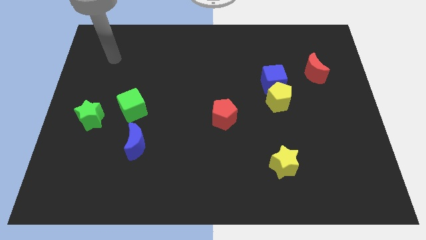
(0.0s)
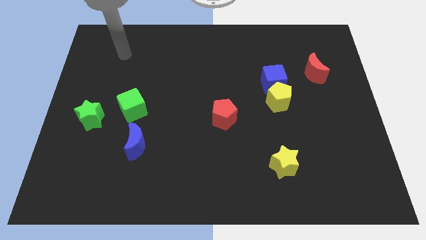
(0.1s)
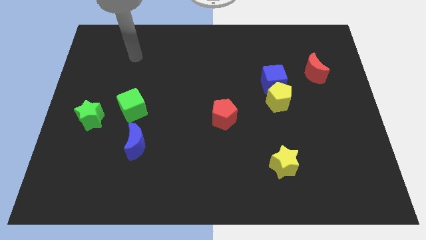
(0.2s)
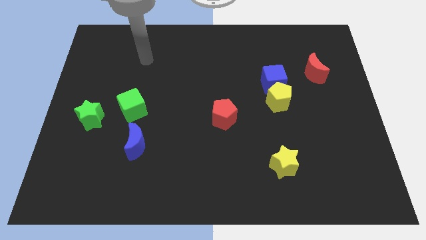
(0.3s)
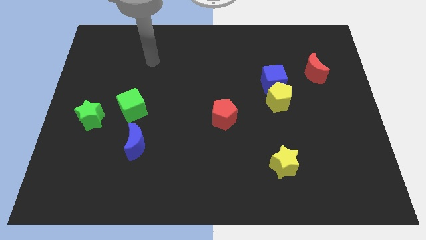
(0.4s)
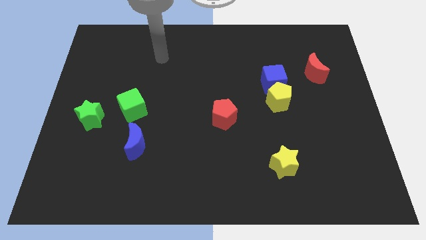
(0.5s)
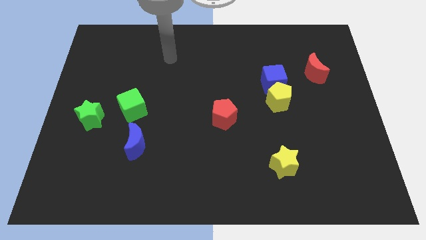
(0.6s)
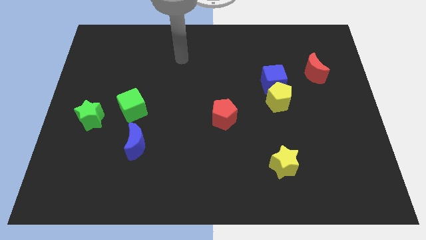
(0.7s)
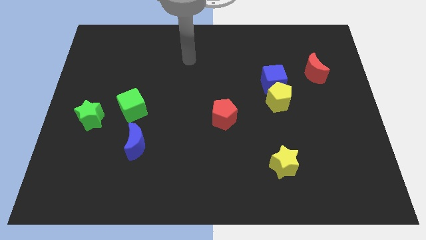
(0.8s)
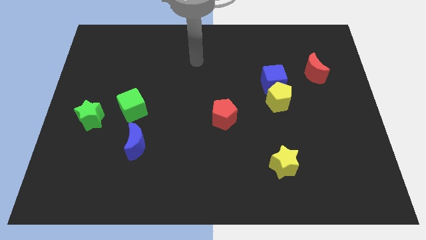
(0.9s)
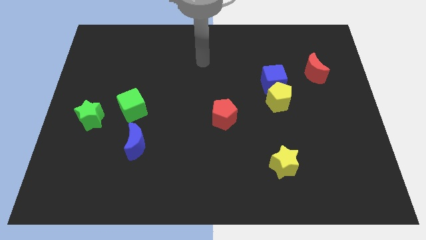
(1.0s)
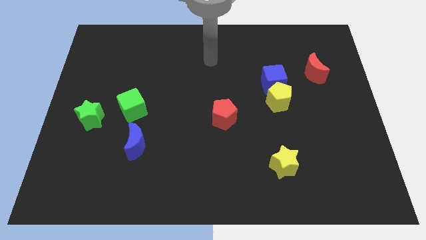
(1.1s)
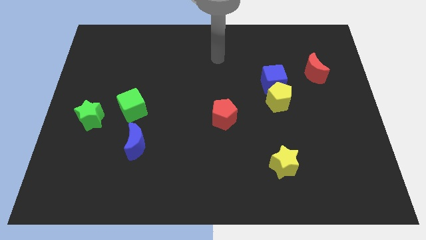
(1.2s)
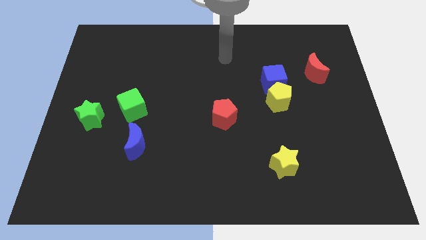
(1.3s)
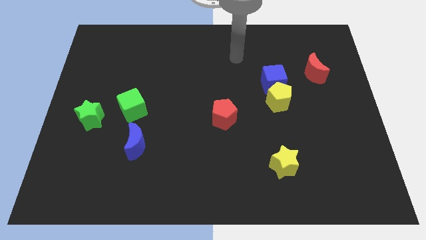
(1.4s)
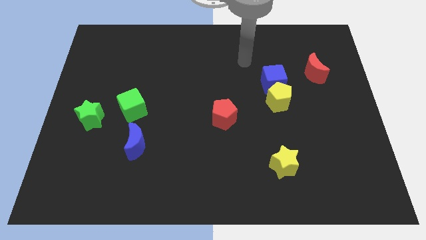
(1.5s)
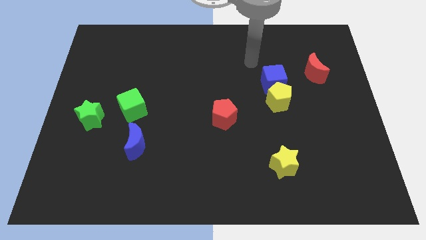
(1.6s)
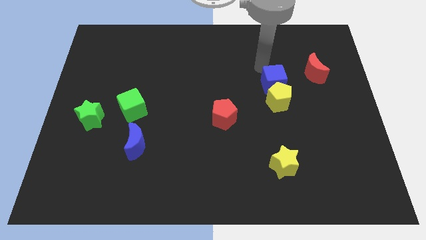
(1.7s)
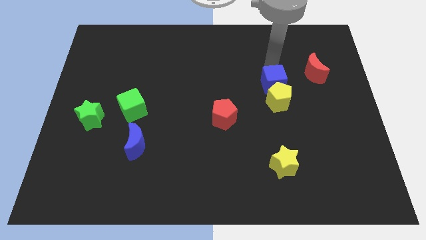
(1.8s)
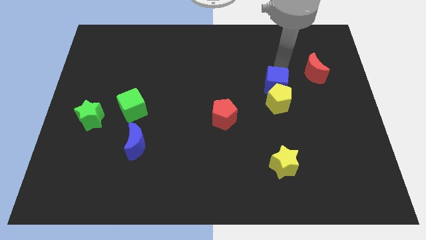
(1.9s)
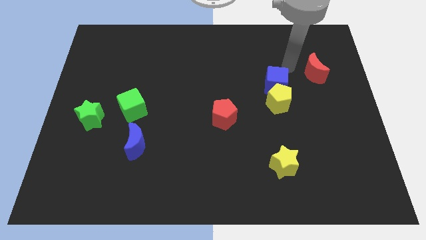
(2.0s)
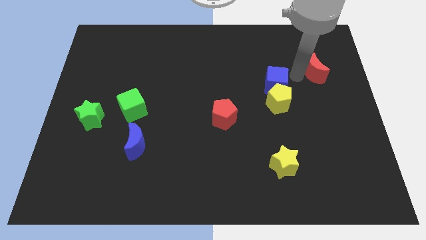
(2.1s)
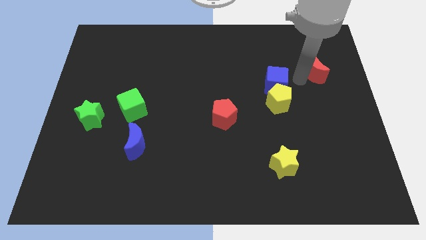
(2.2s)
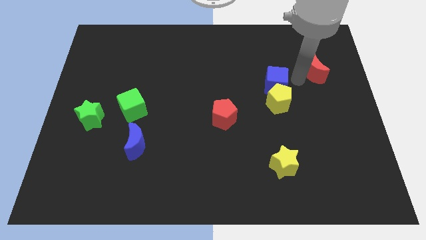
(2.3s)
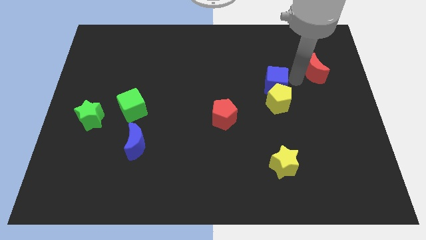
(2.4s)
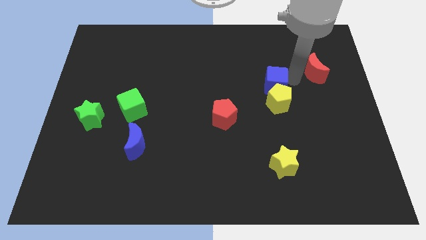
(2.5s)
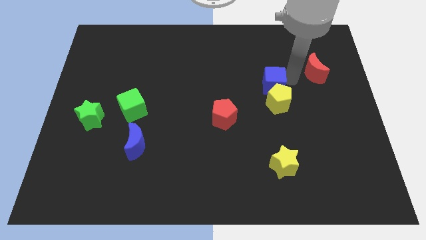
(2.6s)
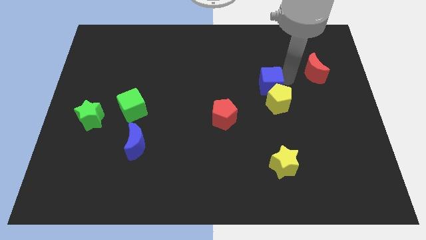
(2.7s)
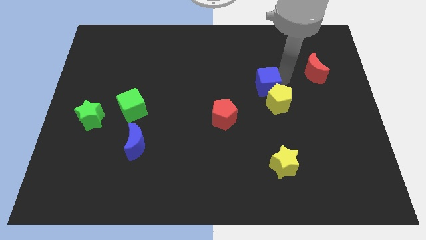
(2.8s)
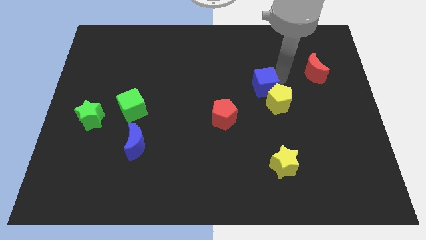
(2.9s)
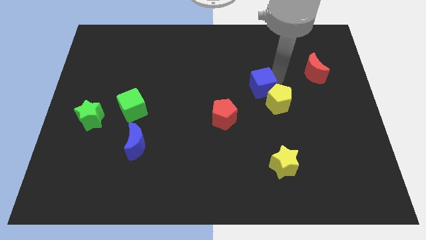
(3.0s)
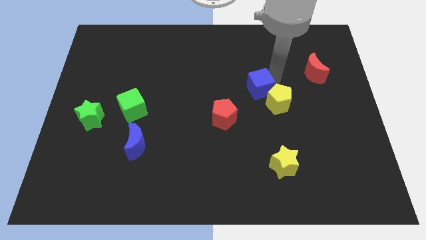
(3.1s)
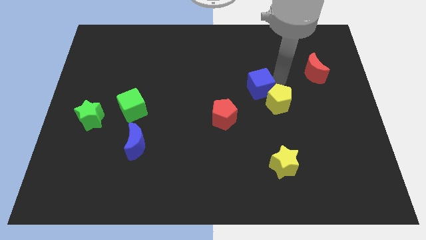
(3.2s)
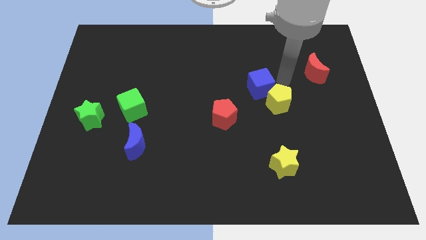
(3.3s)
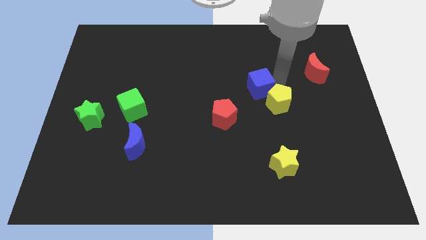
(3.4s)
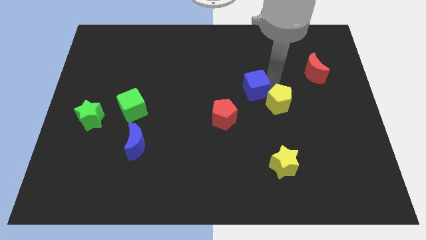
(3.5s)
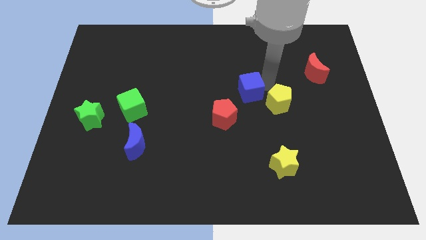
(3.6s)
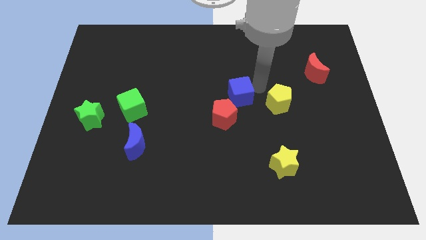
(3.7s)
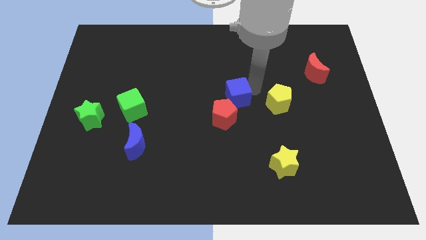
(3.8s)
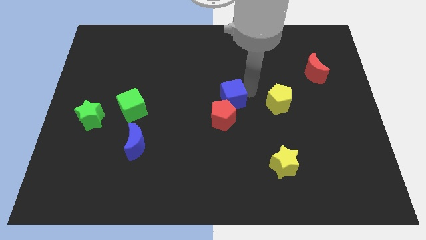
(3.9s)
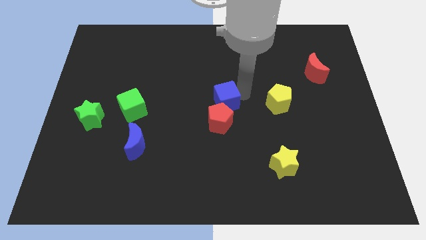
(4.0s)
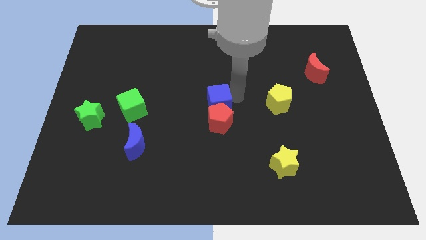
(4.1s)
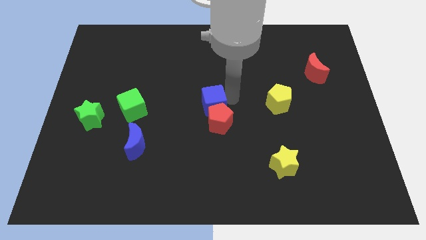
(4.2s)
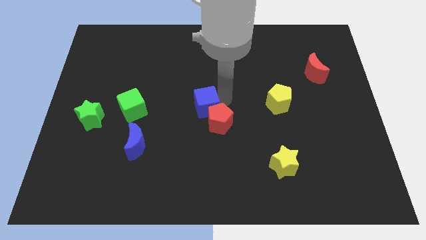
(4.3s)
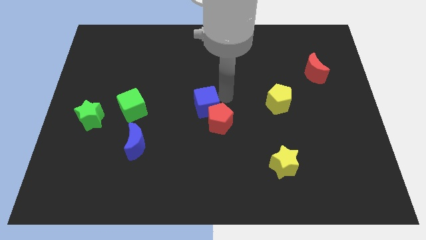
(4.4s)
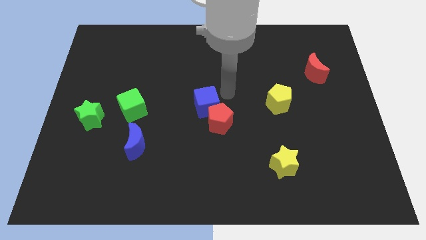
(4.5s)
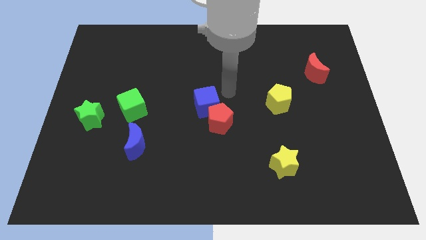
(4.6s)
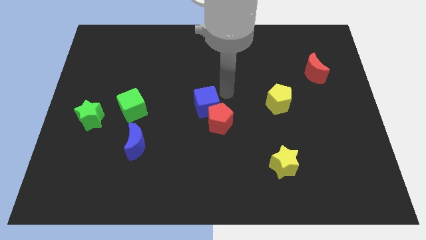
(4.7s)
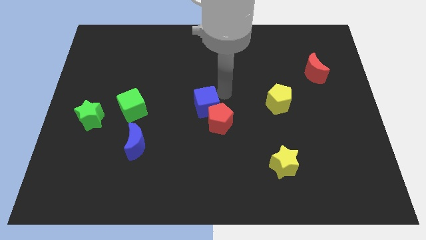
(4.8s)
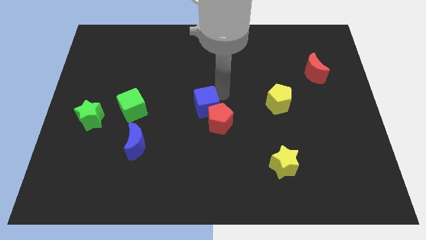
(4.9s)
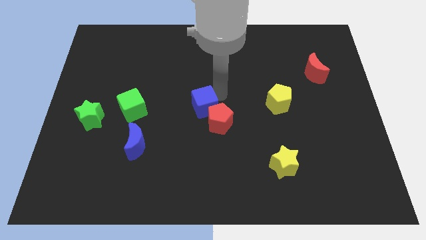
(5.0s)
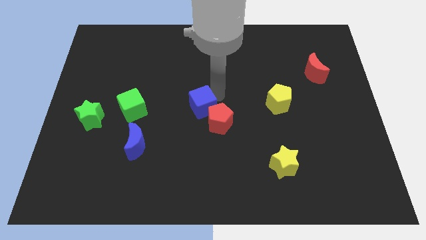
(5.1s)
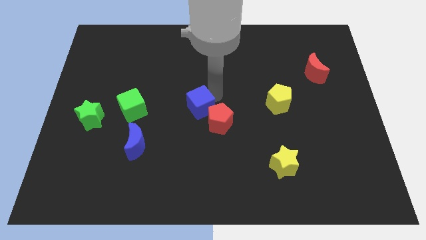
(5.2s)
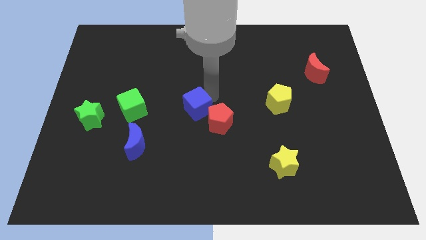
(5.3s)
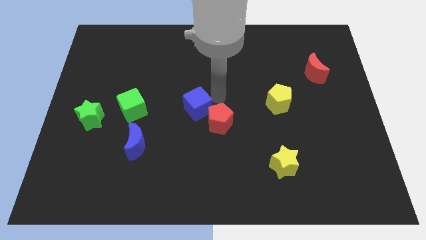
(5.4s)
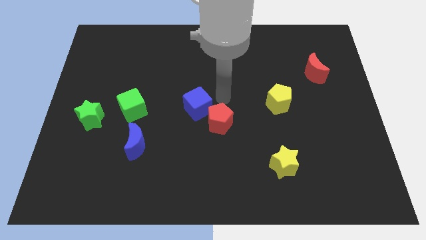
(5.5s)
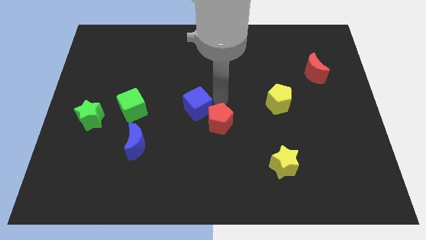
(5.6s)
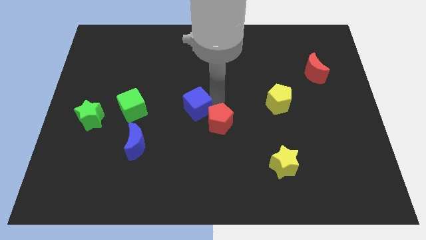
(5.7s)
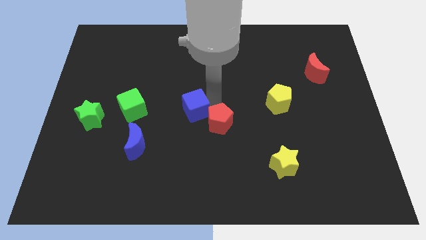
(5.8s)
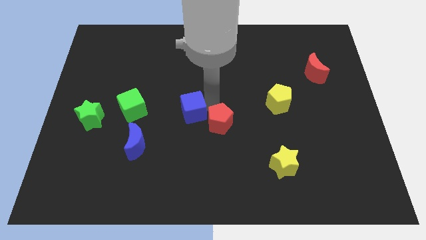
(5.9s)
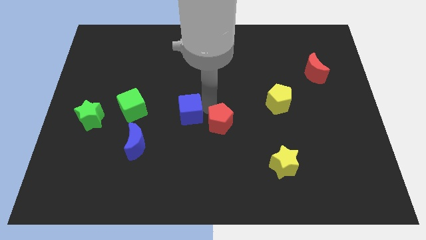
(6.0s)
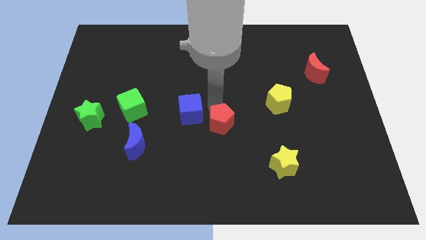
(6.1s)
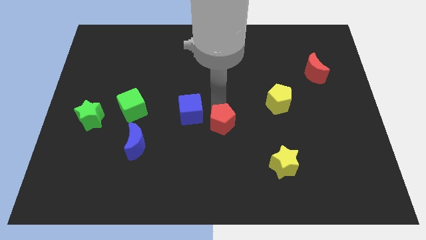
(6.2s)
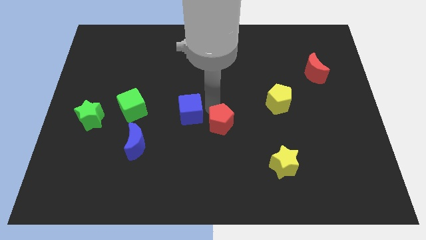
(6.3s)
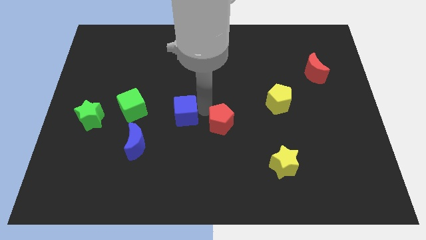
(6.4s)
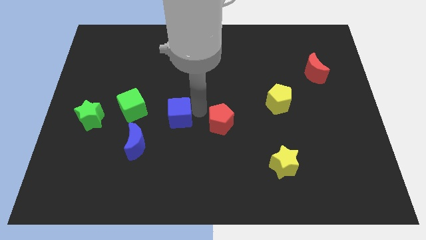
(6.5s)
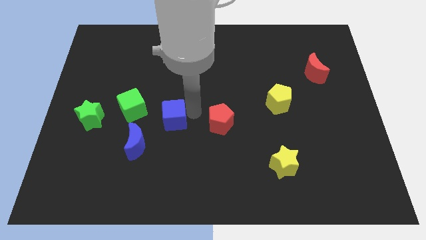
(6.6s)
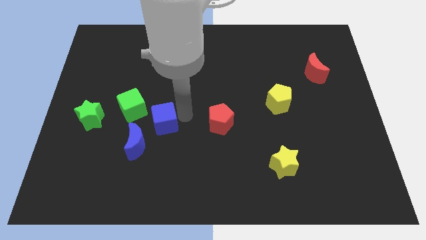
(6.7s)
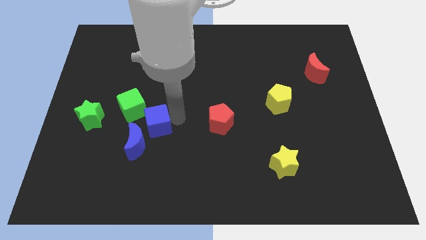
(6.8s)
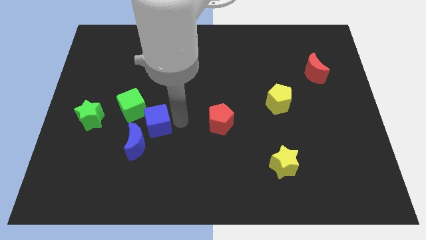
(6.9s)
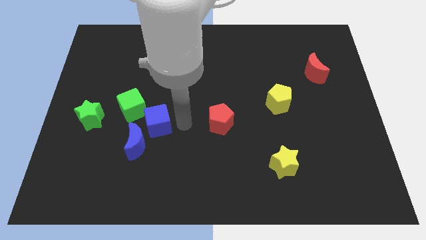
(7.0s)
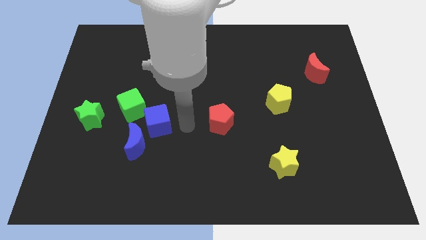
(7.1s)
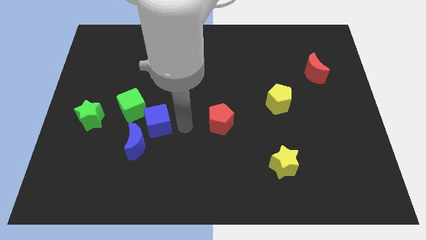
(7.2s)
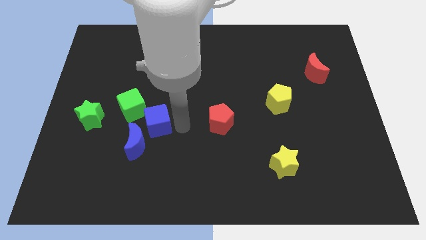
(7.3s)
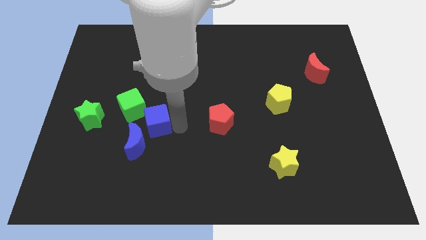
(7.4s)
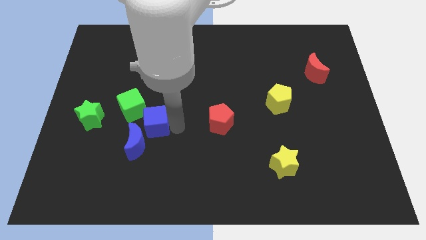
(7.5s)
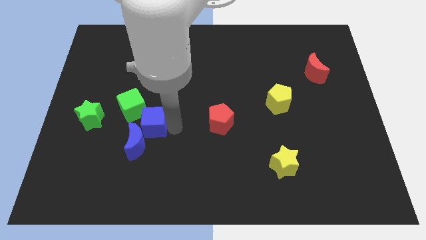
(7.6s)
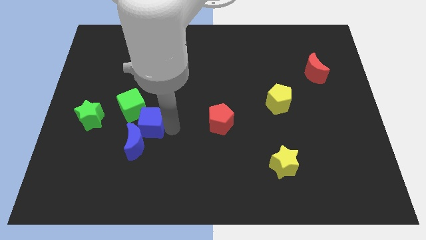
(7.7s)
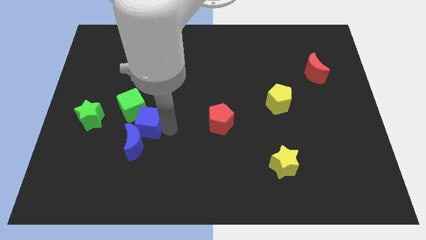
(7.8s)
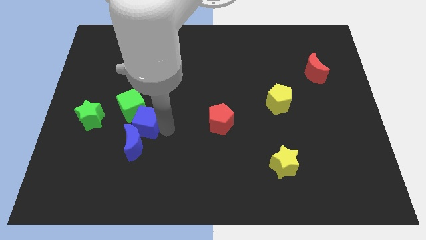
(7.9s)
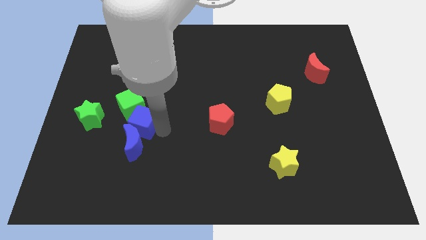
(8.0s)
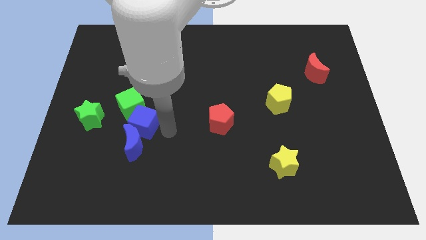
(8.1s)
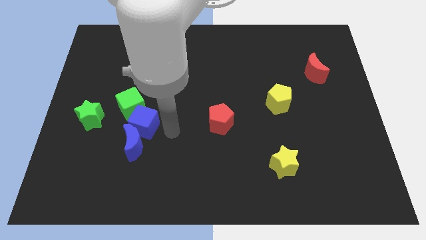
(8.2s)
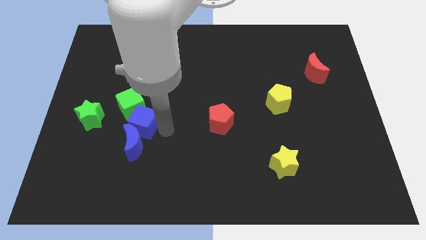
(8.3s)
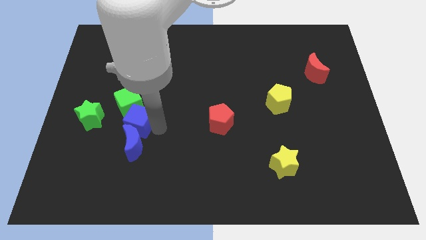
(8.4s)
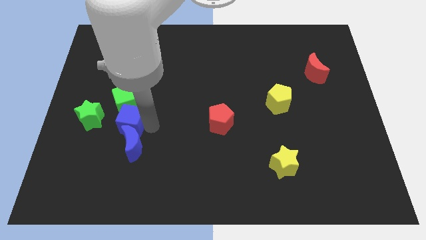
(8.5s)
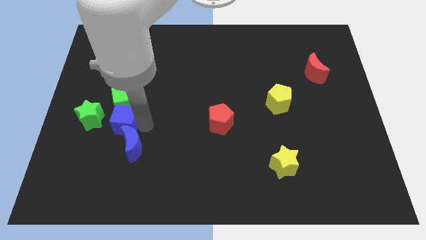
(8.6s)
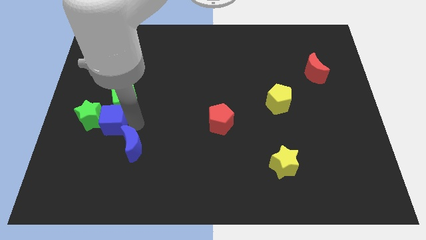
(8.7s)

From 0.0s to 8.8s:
move the blue cube close to the green star
